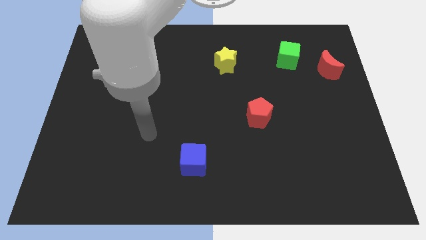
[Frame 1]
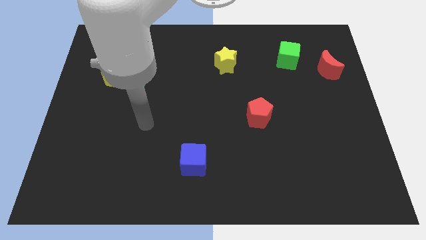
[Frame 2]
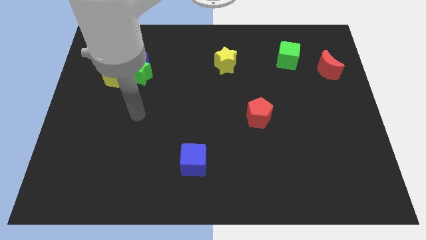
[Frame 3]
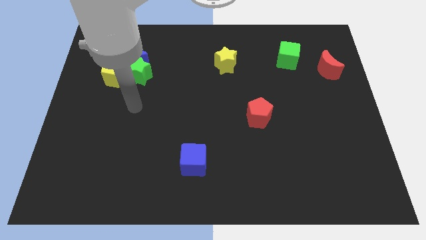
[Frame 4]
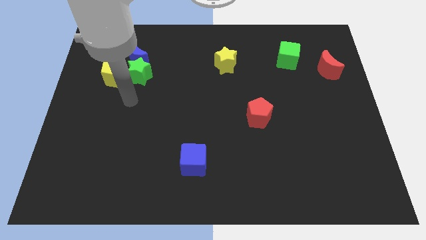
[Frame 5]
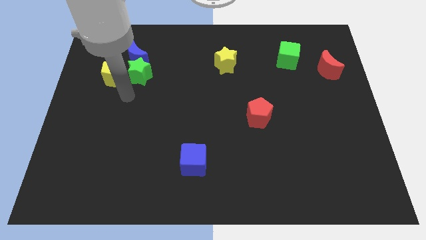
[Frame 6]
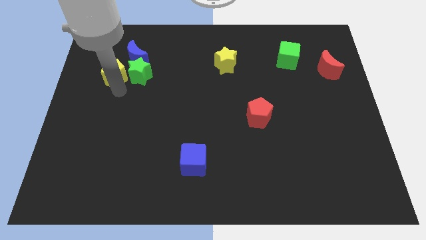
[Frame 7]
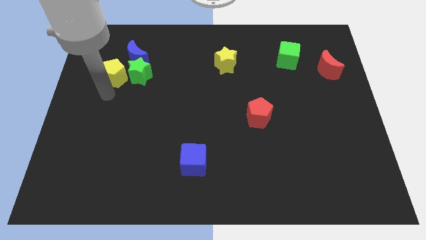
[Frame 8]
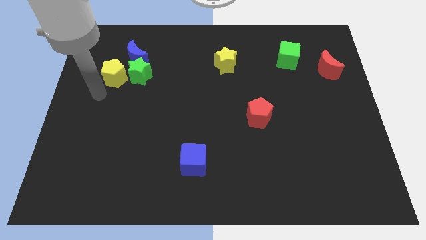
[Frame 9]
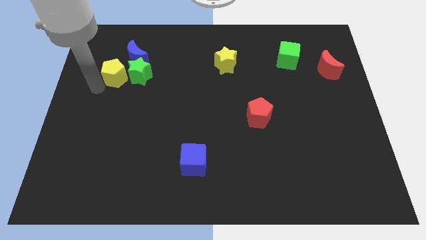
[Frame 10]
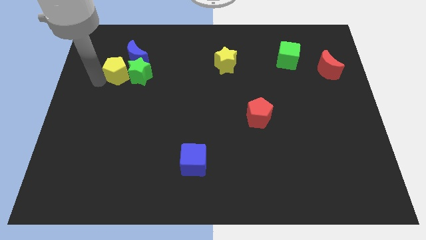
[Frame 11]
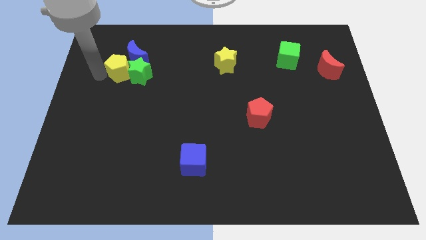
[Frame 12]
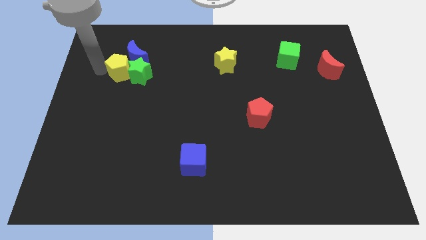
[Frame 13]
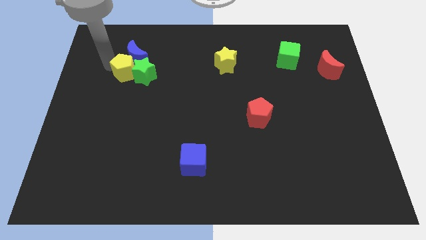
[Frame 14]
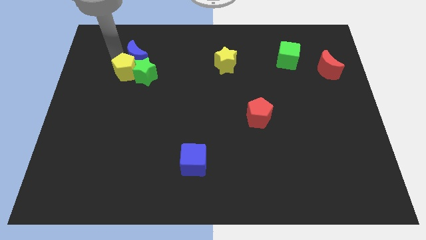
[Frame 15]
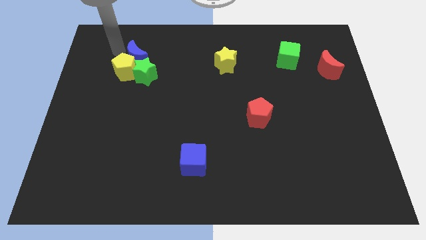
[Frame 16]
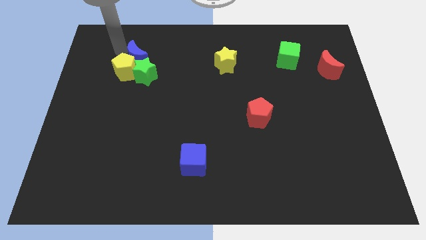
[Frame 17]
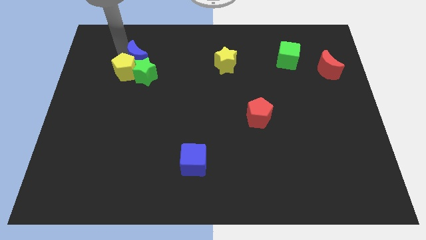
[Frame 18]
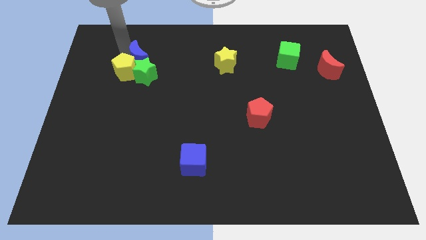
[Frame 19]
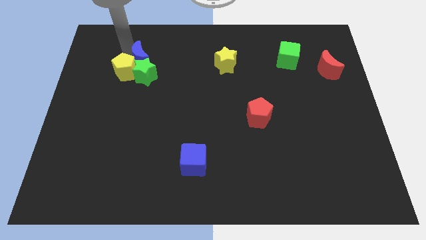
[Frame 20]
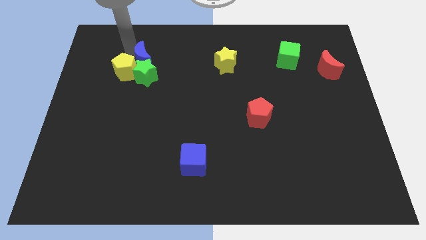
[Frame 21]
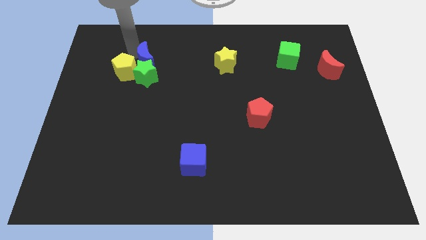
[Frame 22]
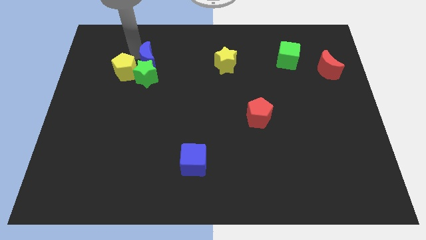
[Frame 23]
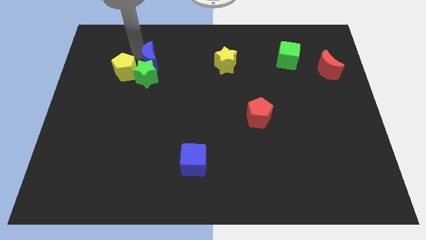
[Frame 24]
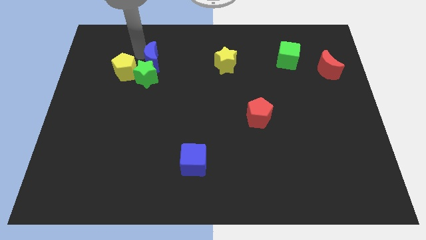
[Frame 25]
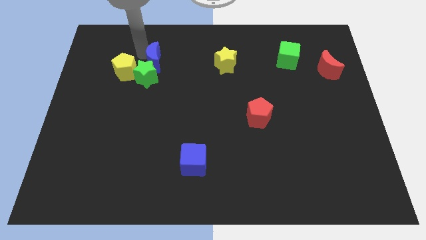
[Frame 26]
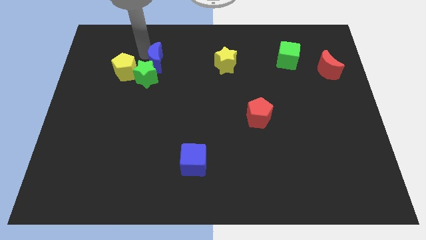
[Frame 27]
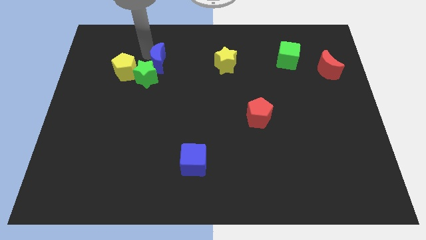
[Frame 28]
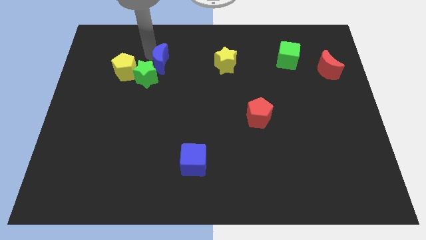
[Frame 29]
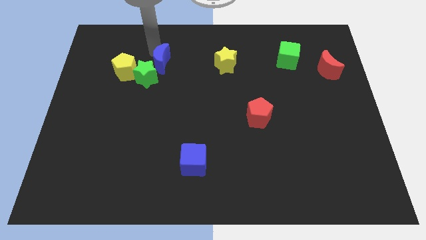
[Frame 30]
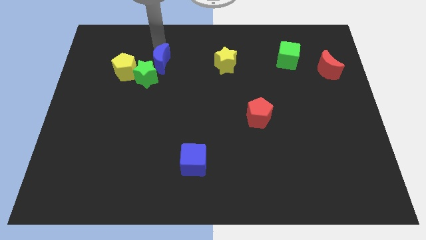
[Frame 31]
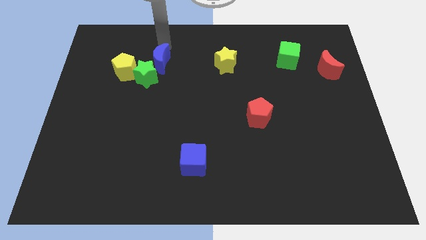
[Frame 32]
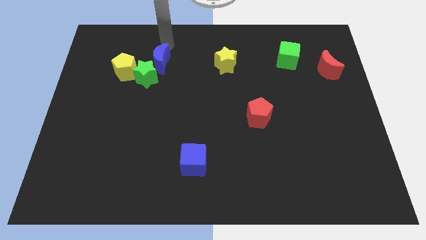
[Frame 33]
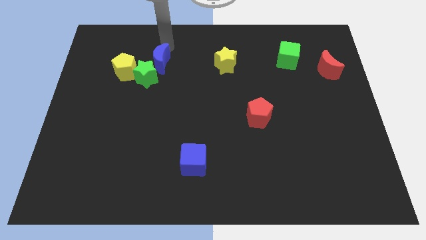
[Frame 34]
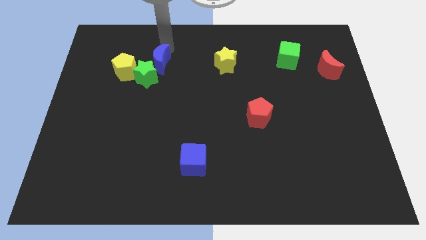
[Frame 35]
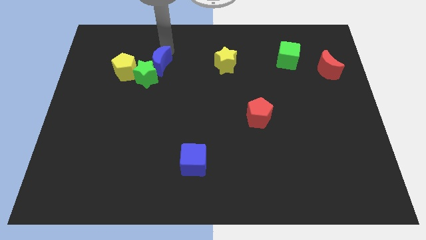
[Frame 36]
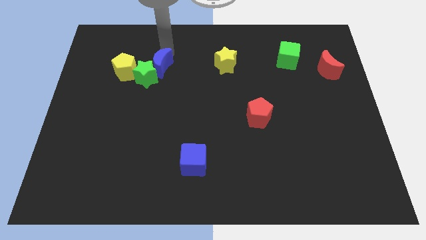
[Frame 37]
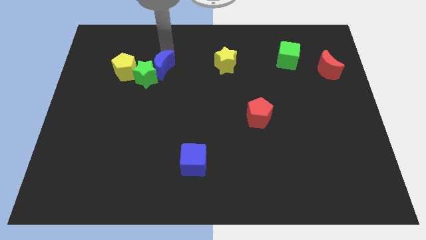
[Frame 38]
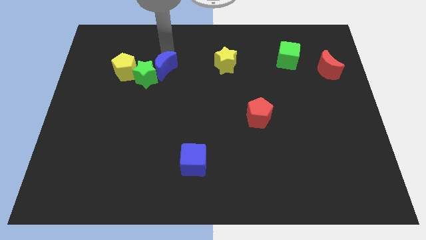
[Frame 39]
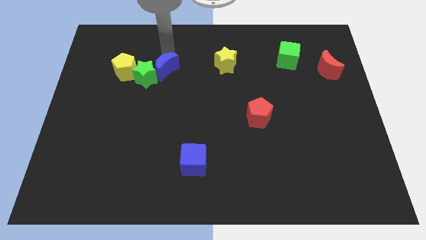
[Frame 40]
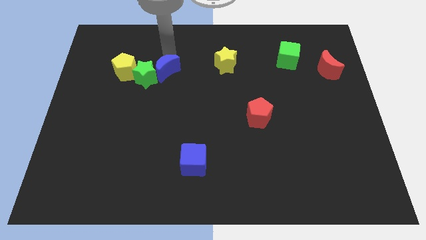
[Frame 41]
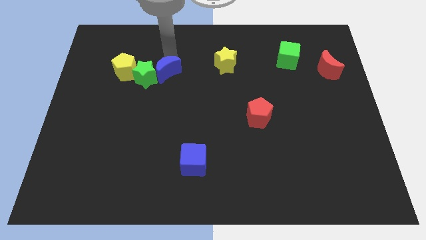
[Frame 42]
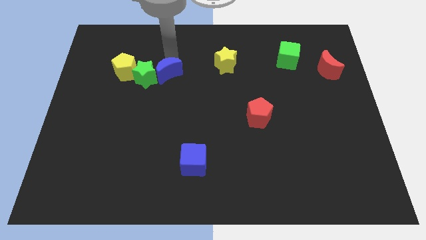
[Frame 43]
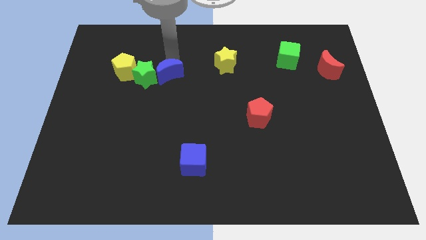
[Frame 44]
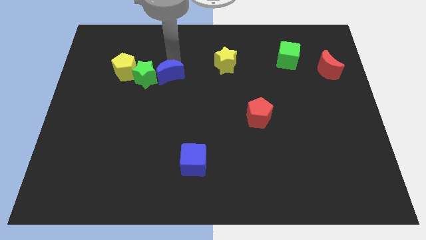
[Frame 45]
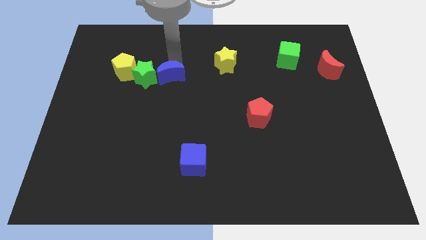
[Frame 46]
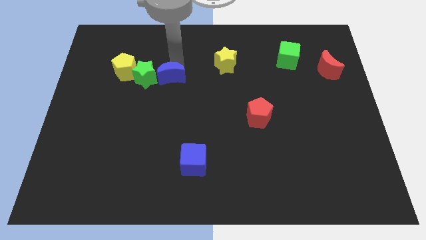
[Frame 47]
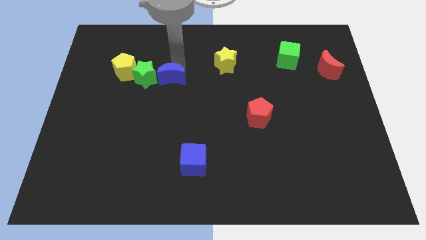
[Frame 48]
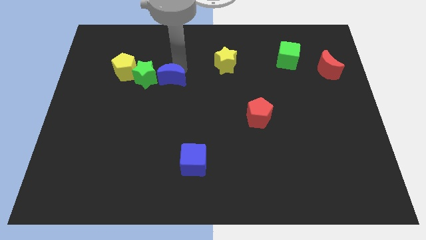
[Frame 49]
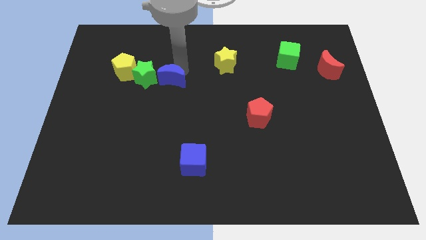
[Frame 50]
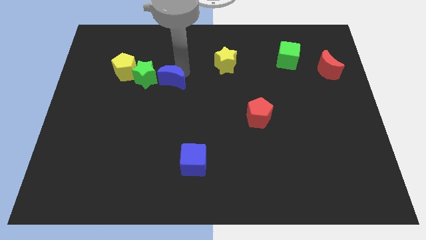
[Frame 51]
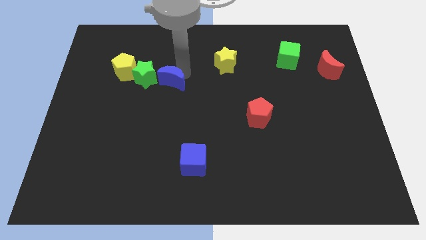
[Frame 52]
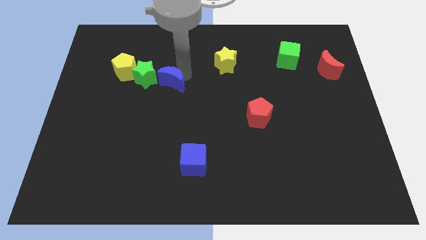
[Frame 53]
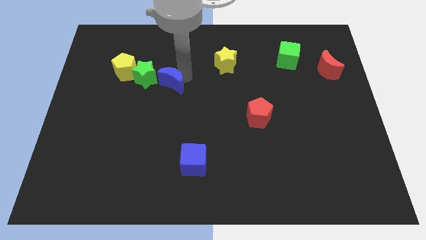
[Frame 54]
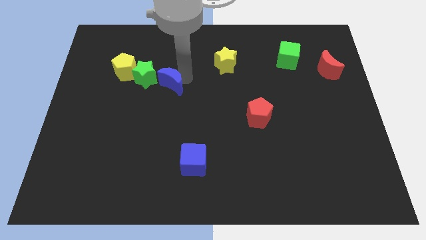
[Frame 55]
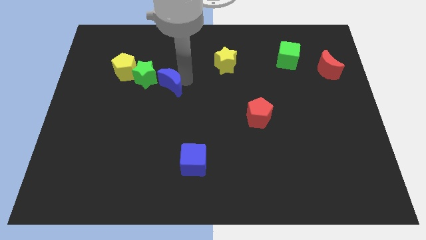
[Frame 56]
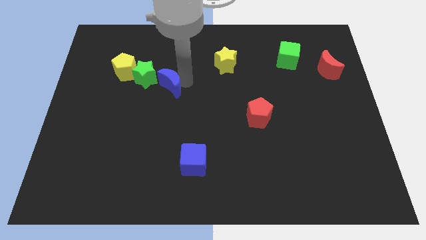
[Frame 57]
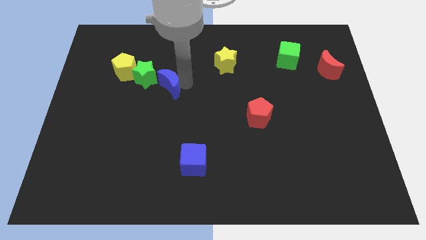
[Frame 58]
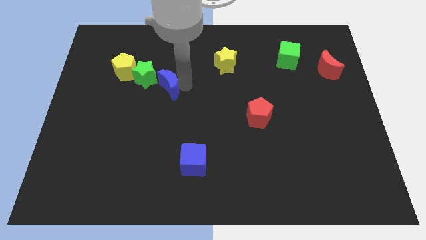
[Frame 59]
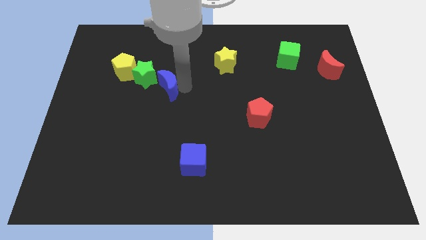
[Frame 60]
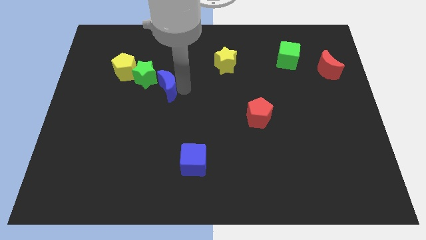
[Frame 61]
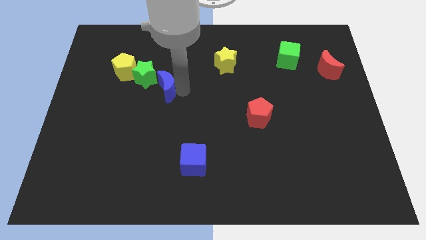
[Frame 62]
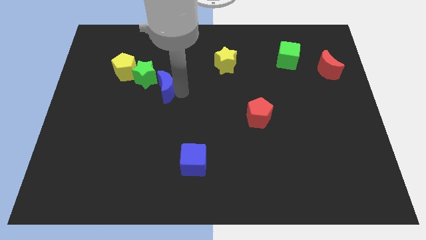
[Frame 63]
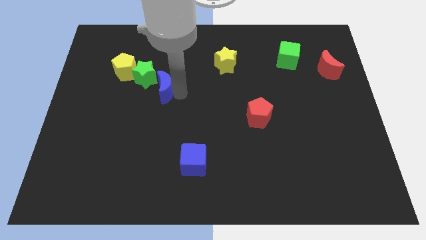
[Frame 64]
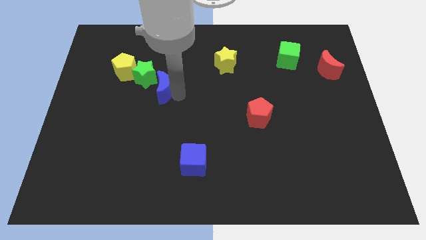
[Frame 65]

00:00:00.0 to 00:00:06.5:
put the blue moon to the bottom of the green star
